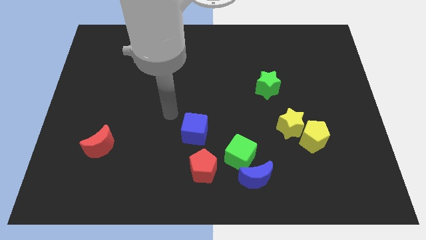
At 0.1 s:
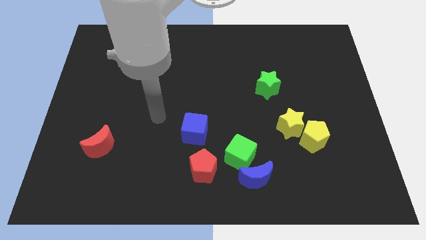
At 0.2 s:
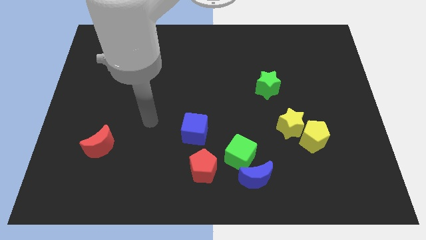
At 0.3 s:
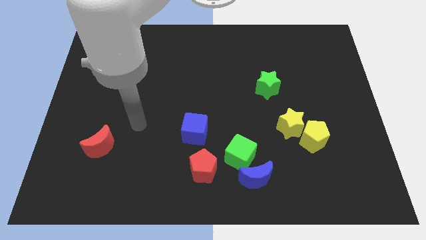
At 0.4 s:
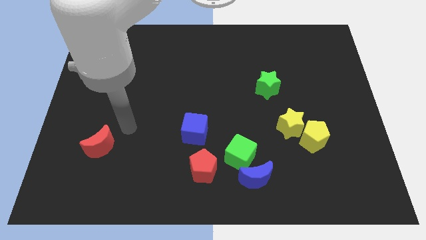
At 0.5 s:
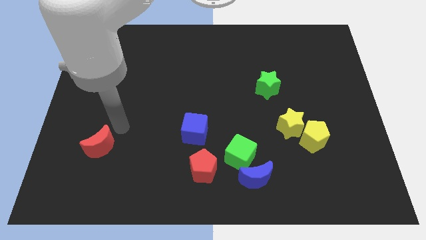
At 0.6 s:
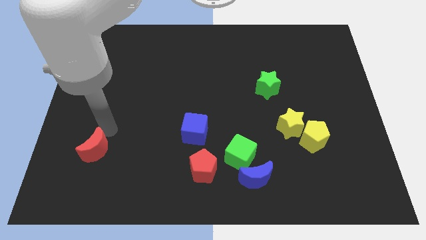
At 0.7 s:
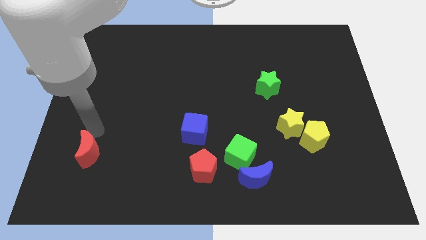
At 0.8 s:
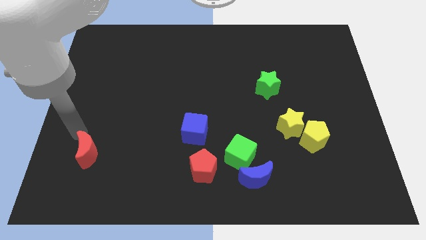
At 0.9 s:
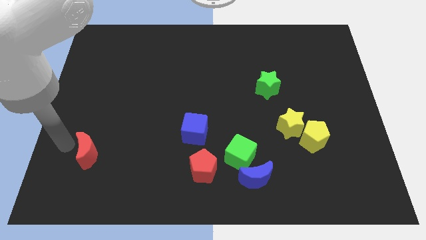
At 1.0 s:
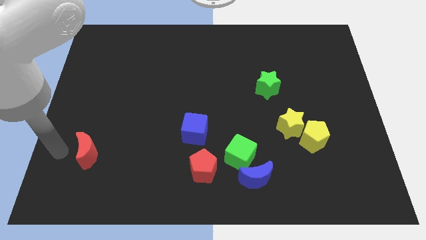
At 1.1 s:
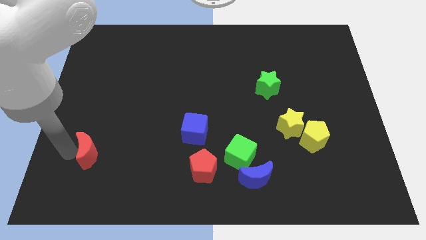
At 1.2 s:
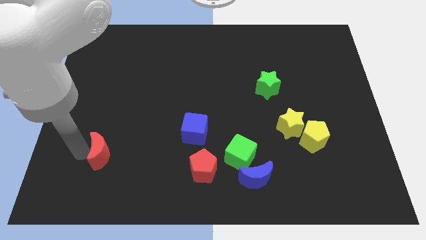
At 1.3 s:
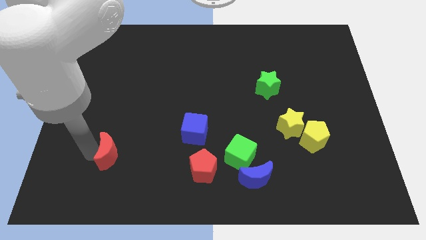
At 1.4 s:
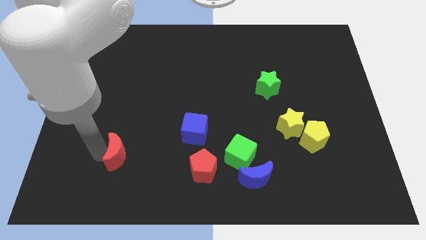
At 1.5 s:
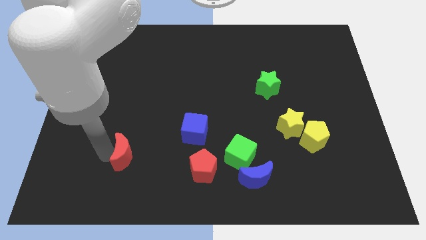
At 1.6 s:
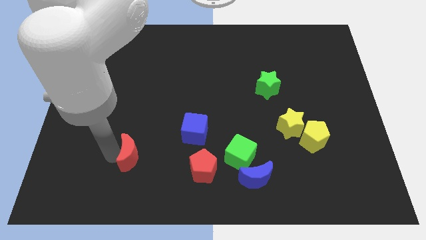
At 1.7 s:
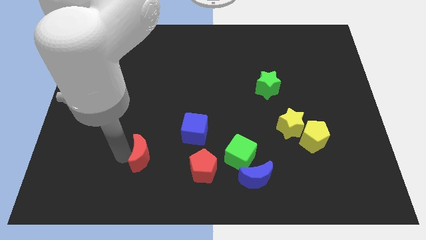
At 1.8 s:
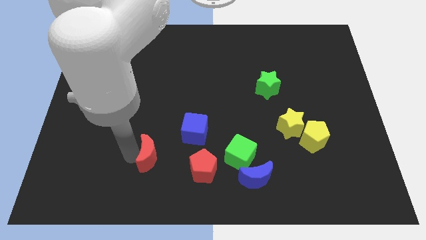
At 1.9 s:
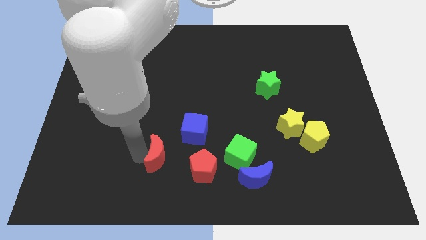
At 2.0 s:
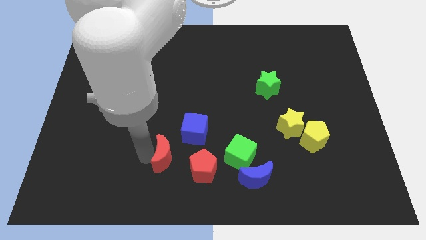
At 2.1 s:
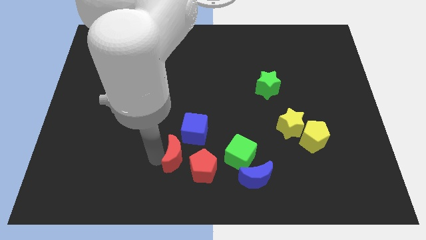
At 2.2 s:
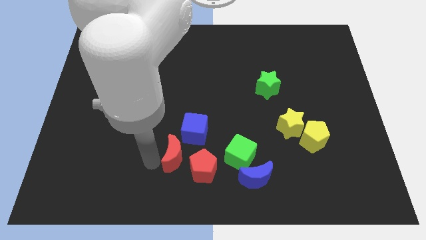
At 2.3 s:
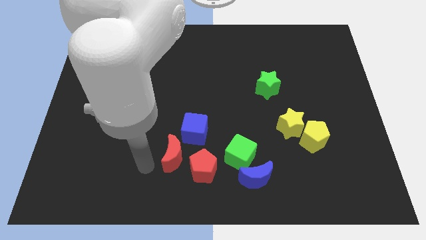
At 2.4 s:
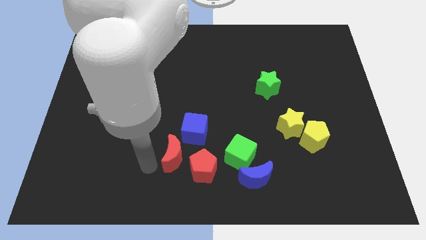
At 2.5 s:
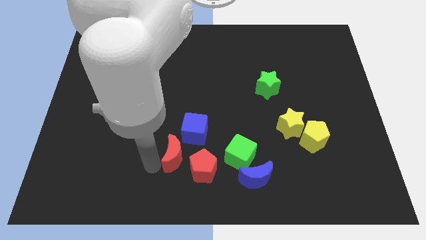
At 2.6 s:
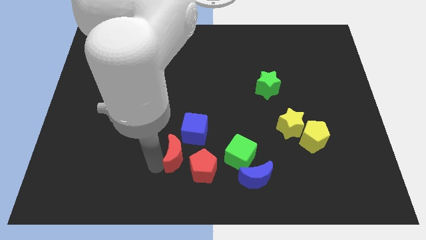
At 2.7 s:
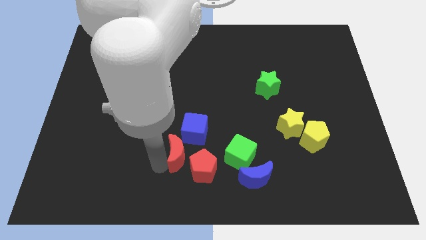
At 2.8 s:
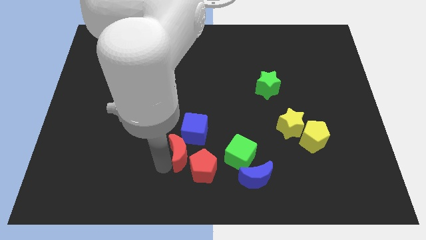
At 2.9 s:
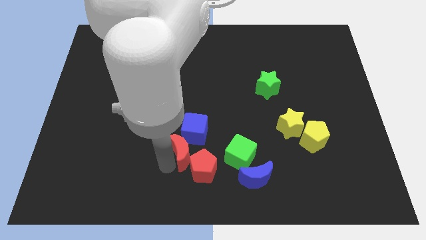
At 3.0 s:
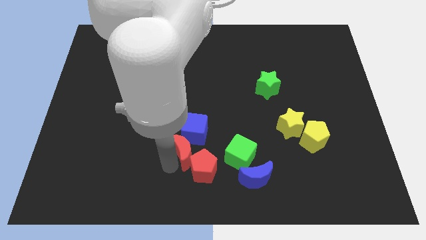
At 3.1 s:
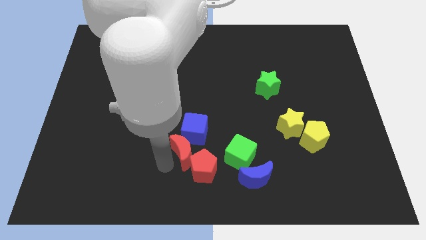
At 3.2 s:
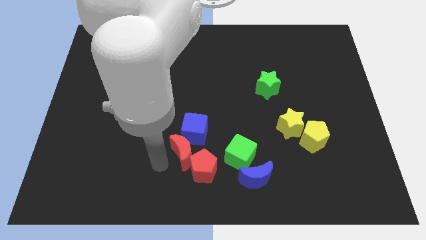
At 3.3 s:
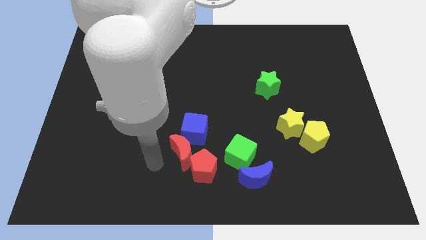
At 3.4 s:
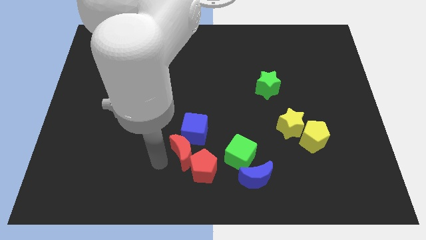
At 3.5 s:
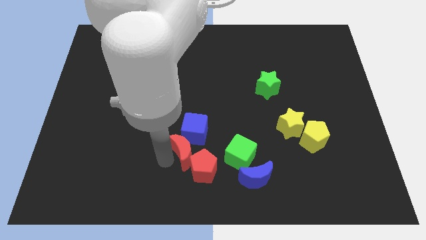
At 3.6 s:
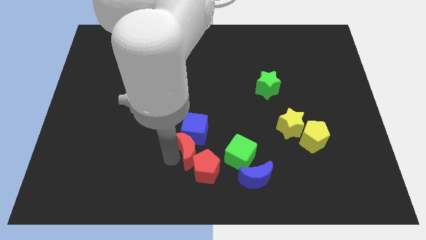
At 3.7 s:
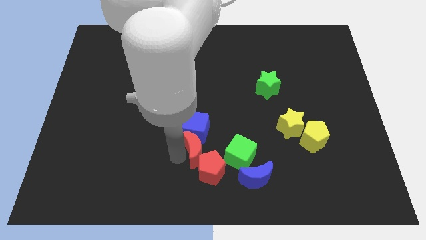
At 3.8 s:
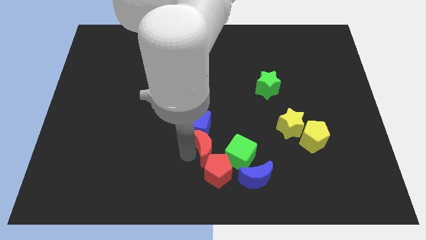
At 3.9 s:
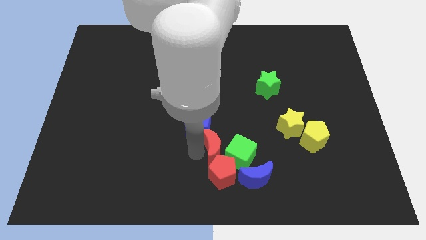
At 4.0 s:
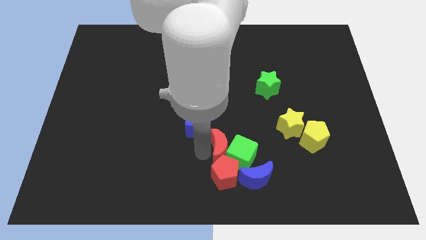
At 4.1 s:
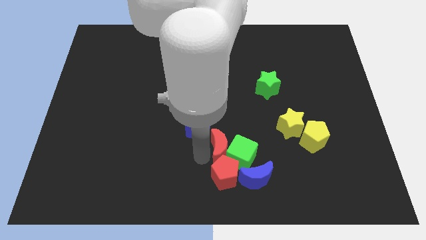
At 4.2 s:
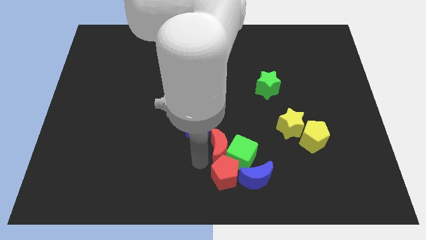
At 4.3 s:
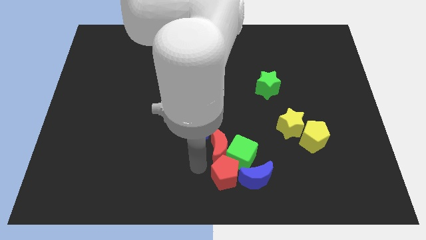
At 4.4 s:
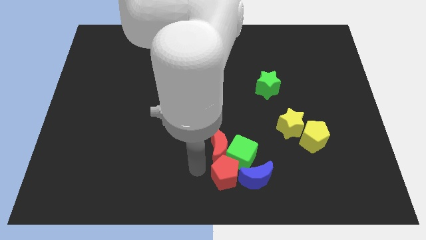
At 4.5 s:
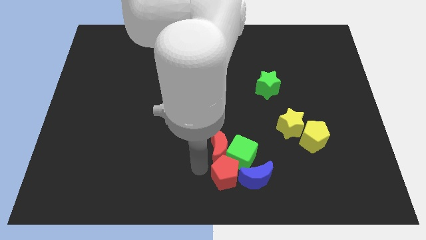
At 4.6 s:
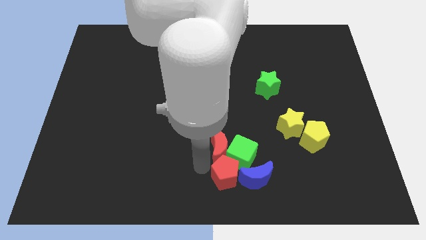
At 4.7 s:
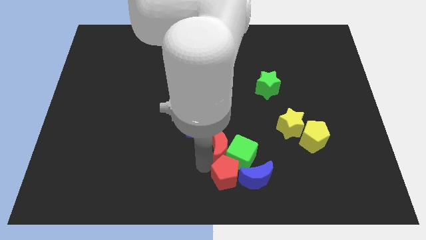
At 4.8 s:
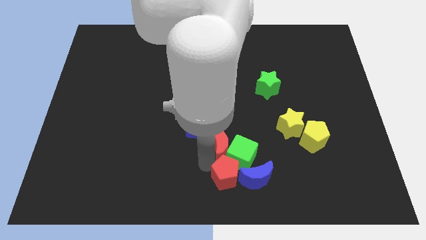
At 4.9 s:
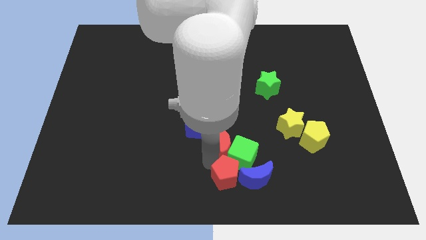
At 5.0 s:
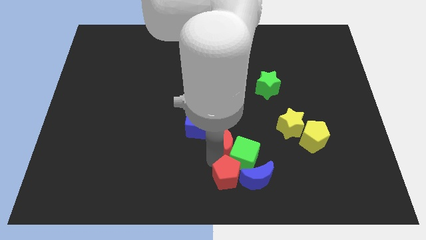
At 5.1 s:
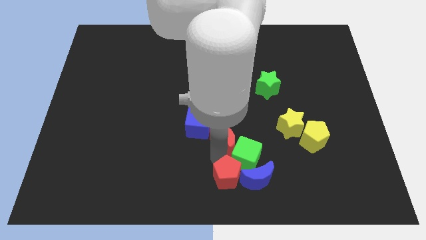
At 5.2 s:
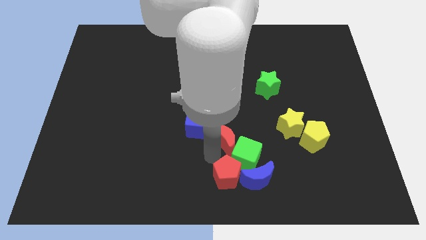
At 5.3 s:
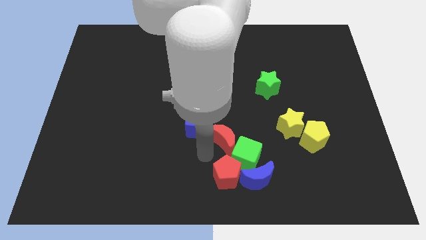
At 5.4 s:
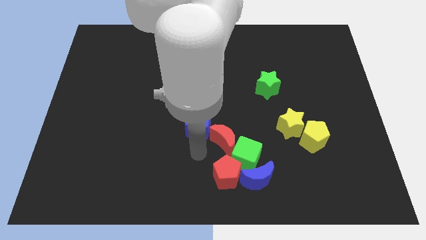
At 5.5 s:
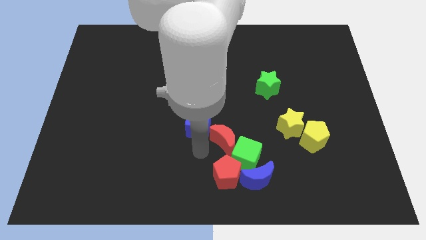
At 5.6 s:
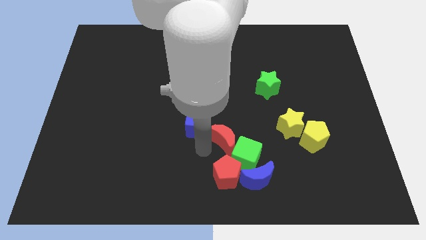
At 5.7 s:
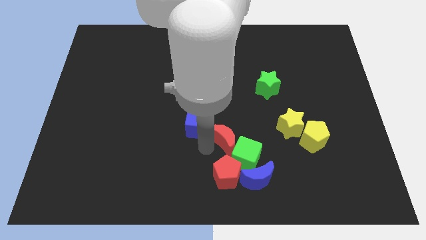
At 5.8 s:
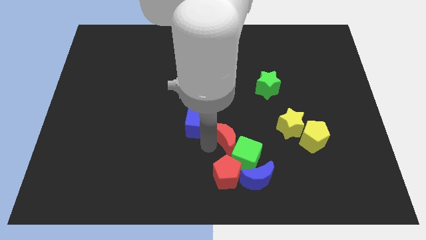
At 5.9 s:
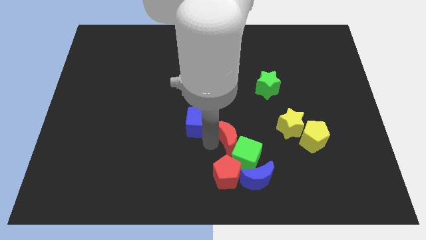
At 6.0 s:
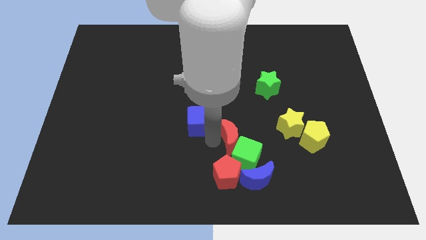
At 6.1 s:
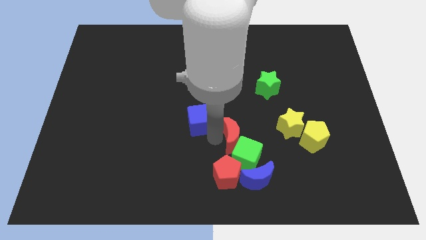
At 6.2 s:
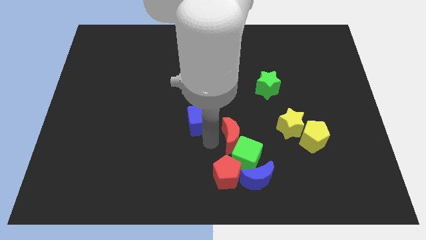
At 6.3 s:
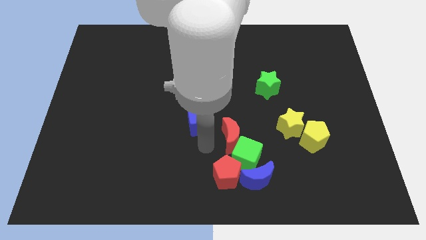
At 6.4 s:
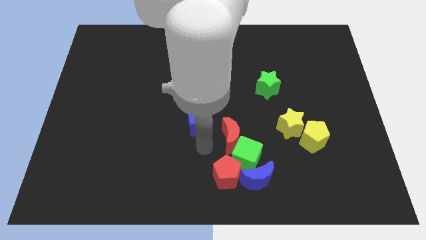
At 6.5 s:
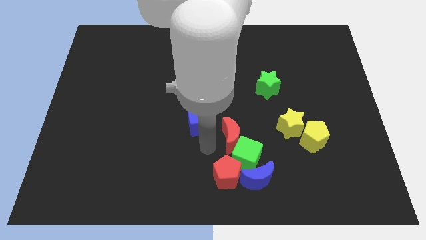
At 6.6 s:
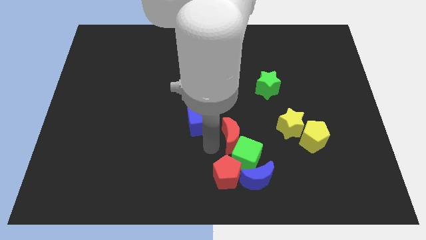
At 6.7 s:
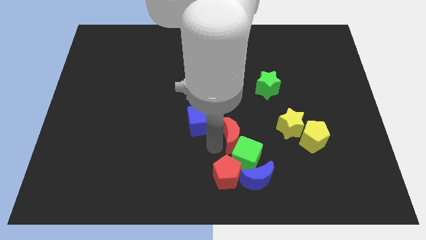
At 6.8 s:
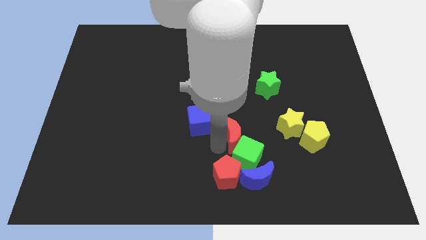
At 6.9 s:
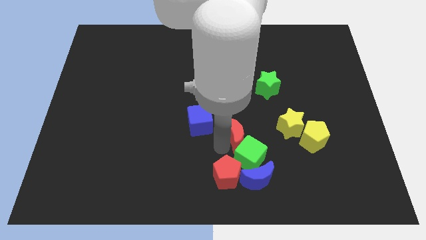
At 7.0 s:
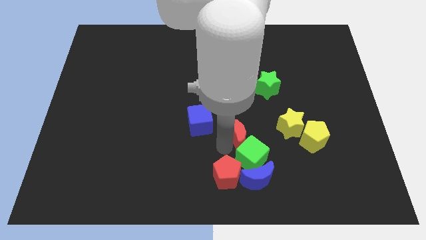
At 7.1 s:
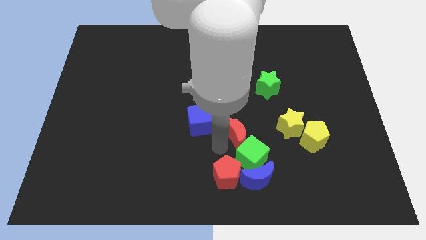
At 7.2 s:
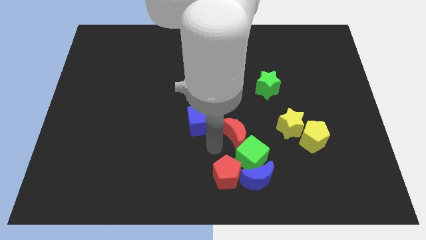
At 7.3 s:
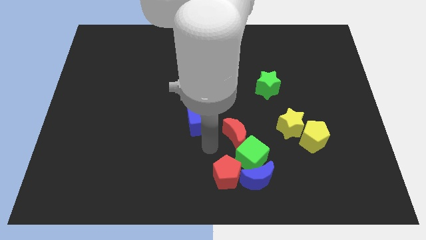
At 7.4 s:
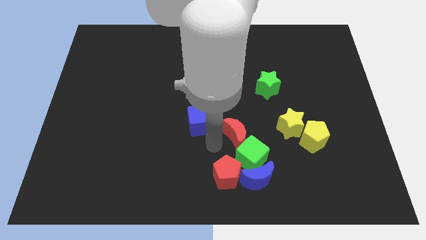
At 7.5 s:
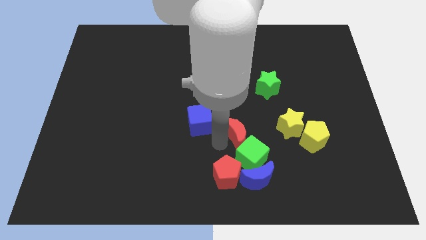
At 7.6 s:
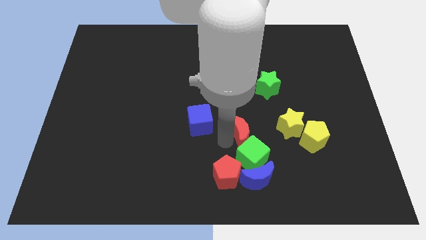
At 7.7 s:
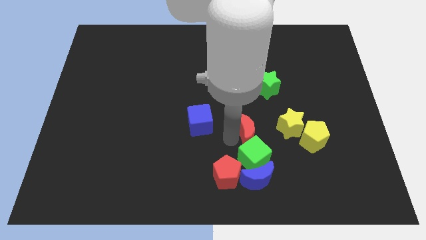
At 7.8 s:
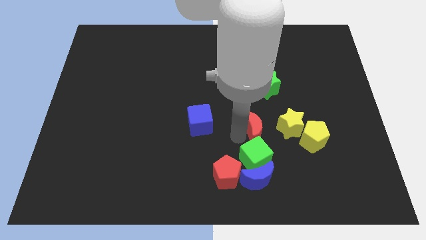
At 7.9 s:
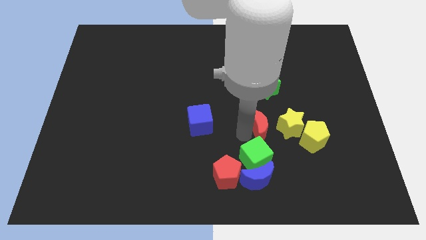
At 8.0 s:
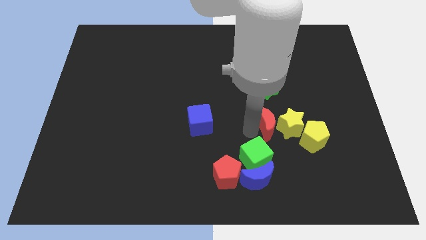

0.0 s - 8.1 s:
put the red moon next to the yellow star
